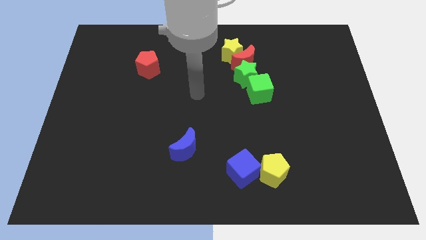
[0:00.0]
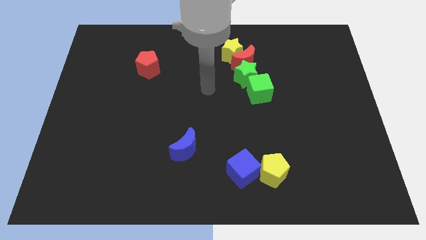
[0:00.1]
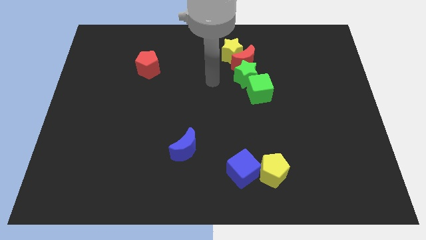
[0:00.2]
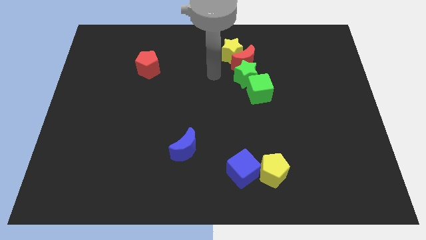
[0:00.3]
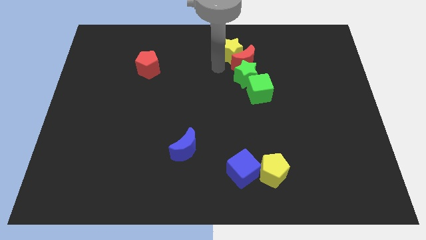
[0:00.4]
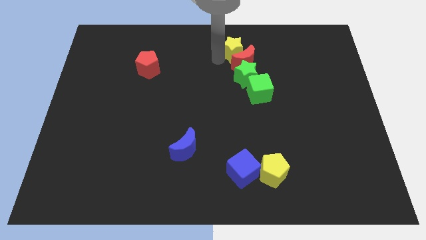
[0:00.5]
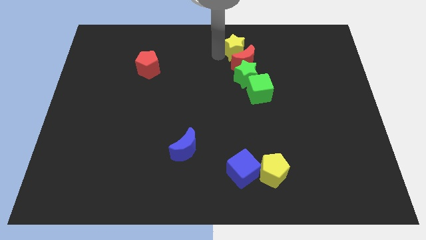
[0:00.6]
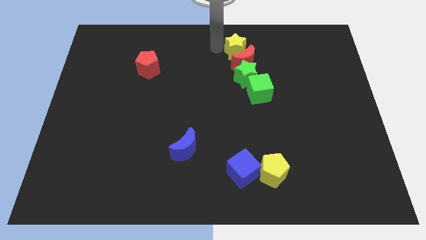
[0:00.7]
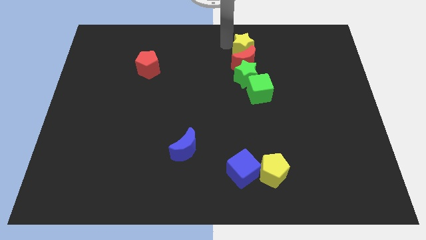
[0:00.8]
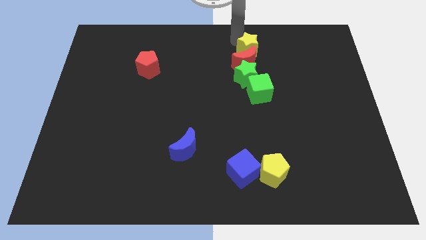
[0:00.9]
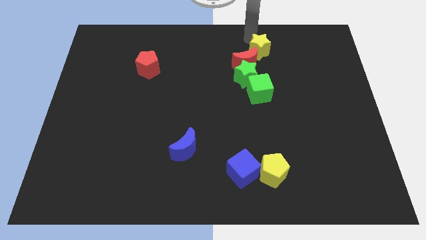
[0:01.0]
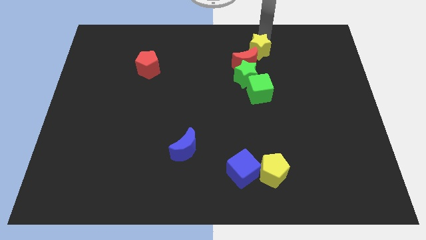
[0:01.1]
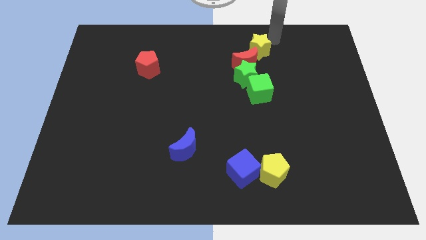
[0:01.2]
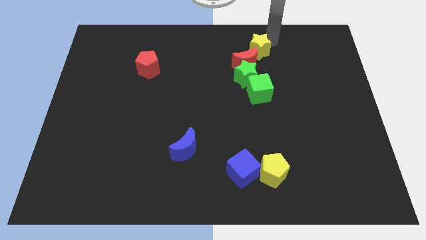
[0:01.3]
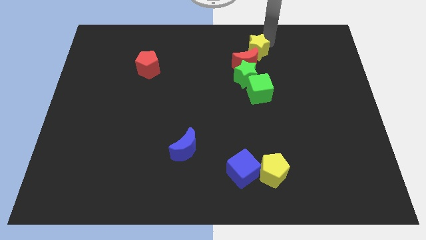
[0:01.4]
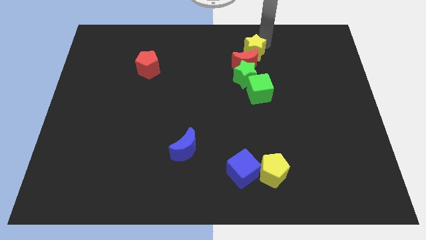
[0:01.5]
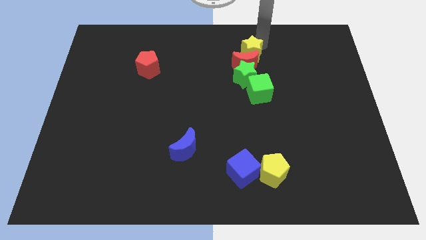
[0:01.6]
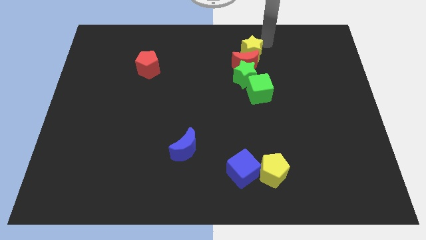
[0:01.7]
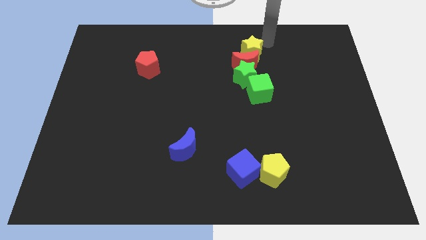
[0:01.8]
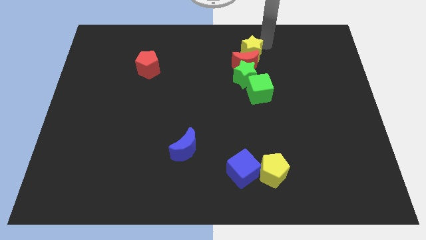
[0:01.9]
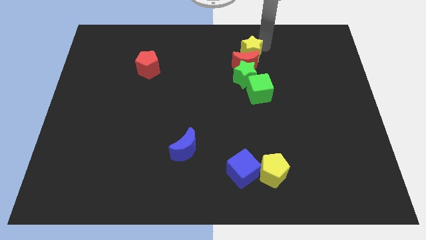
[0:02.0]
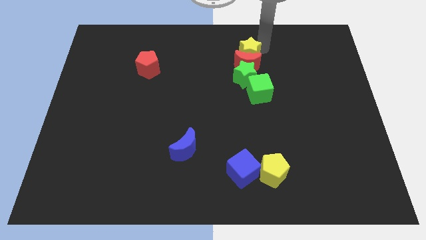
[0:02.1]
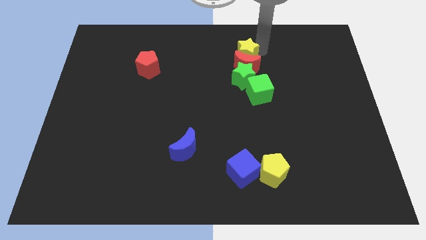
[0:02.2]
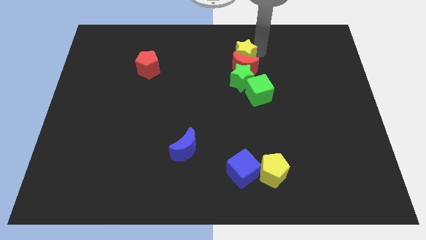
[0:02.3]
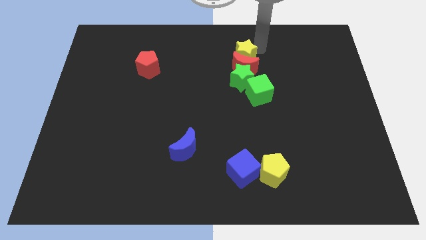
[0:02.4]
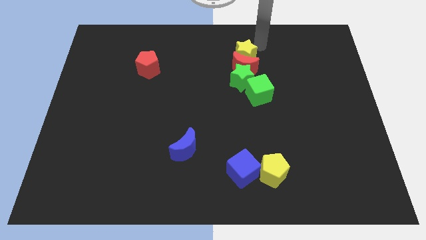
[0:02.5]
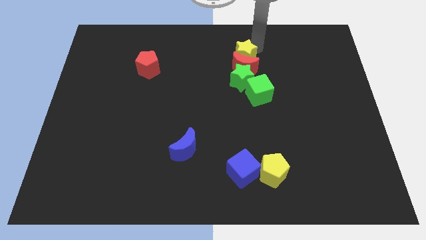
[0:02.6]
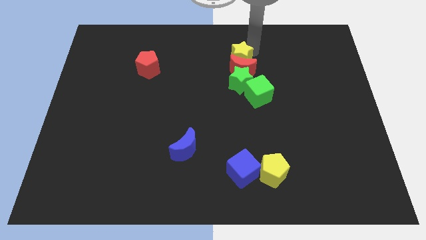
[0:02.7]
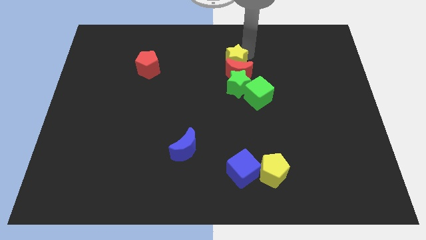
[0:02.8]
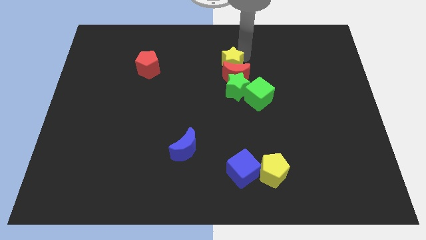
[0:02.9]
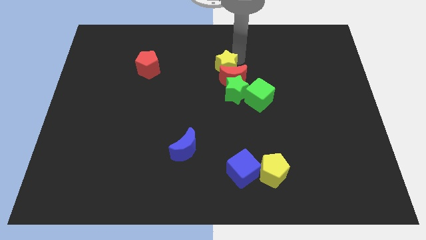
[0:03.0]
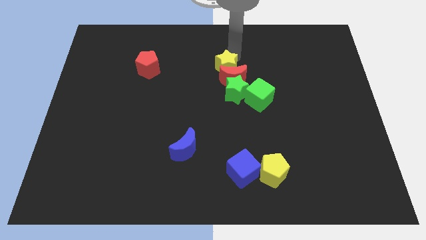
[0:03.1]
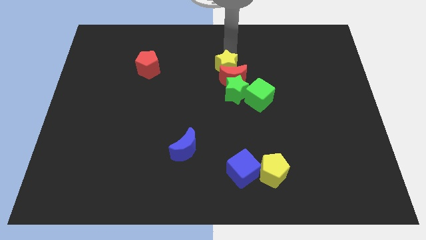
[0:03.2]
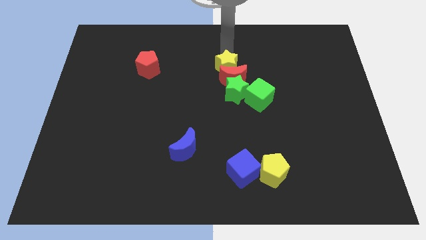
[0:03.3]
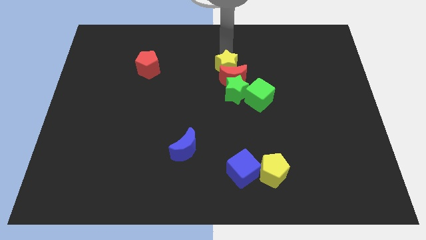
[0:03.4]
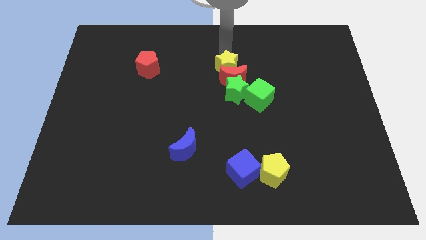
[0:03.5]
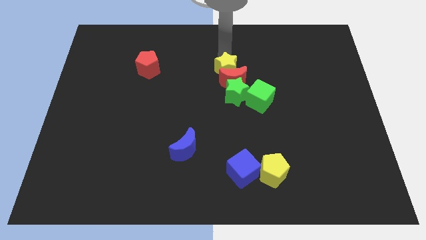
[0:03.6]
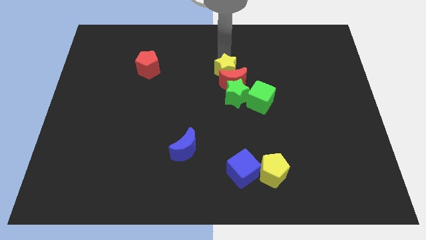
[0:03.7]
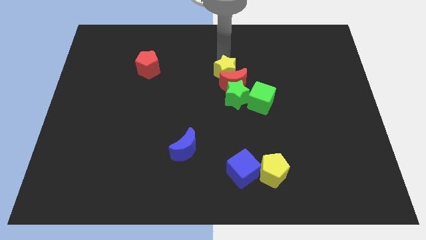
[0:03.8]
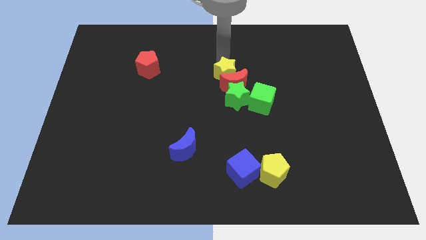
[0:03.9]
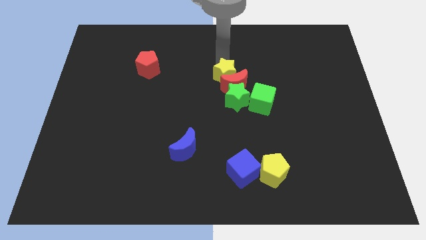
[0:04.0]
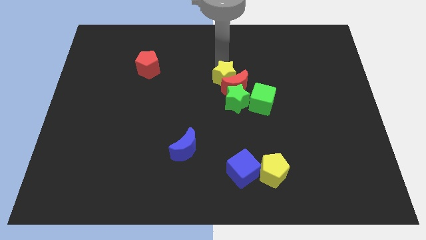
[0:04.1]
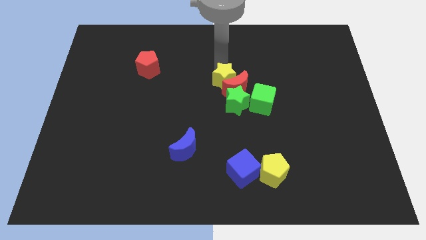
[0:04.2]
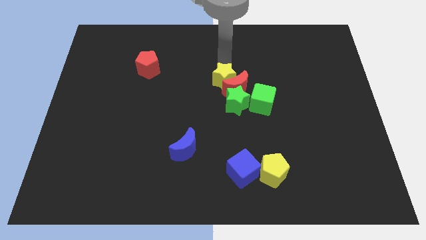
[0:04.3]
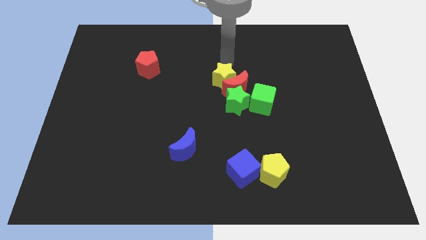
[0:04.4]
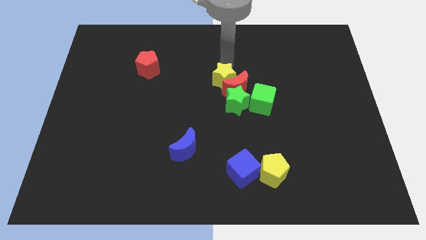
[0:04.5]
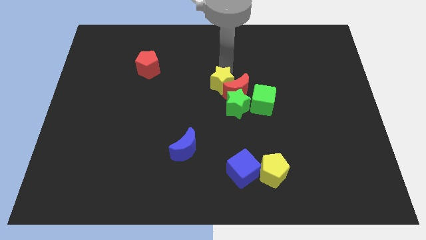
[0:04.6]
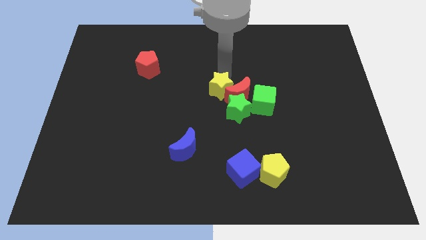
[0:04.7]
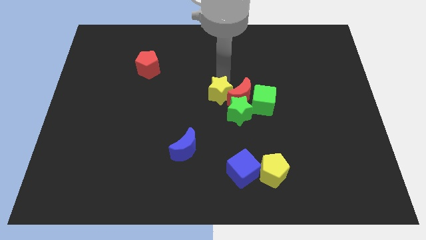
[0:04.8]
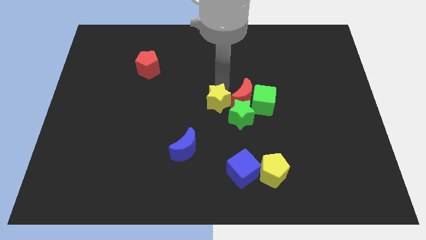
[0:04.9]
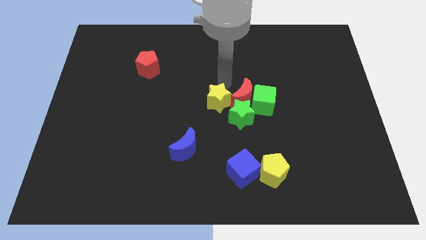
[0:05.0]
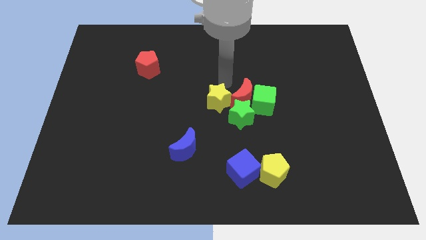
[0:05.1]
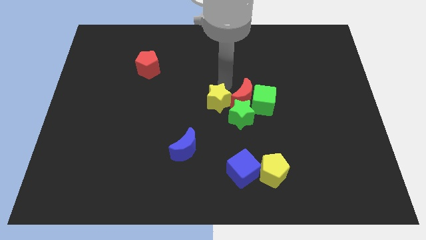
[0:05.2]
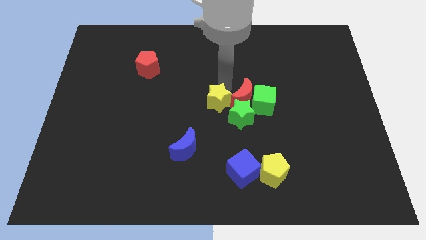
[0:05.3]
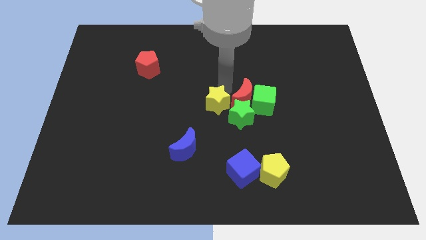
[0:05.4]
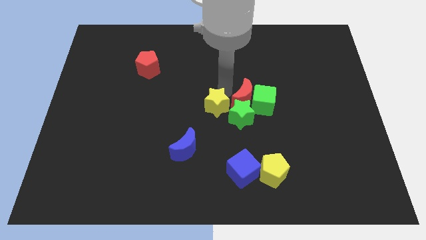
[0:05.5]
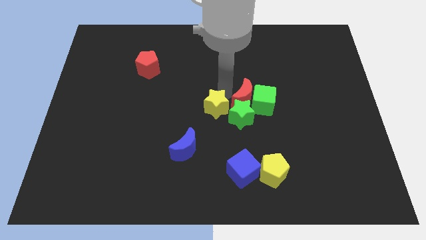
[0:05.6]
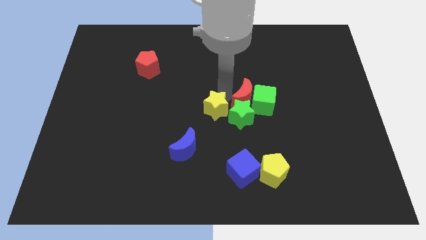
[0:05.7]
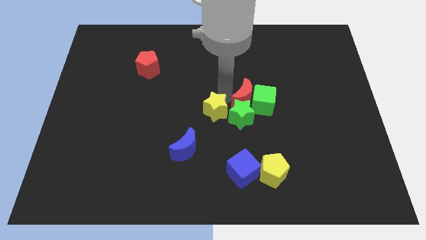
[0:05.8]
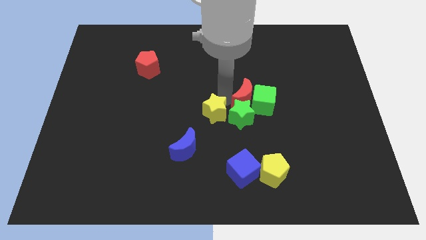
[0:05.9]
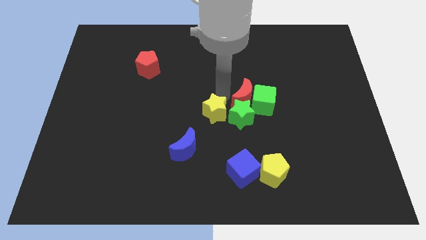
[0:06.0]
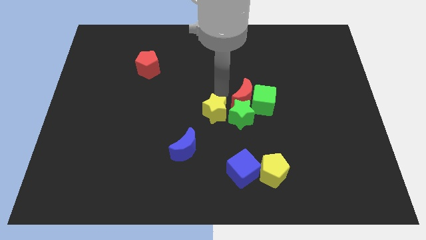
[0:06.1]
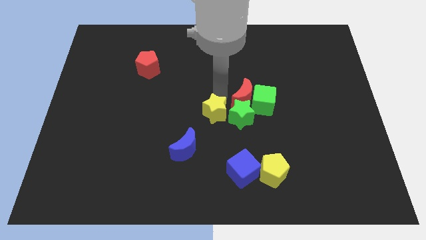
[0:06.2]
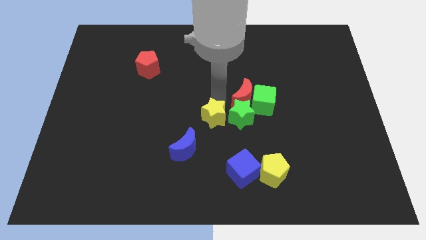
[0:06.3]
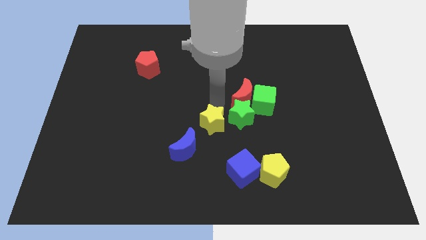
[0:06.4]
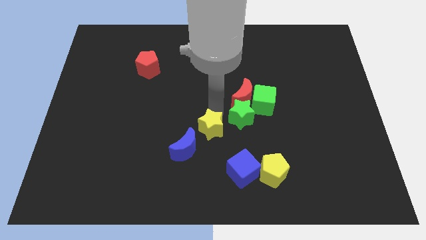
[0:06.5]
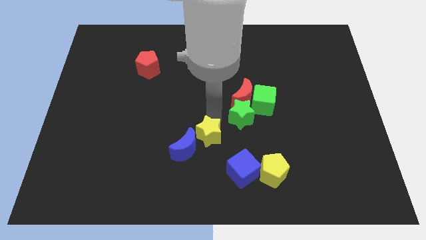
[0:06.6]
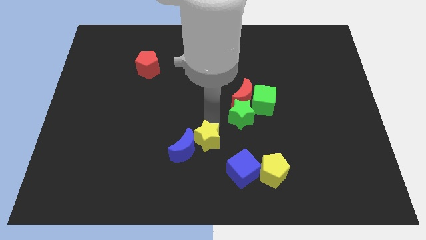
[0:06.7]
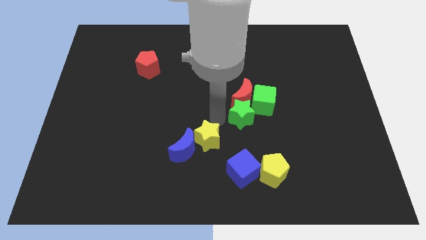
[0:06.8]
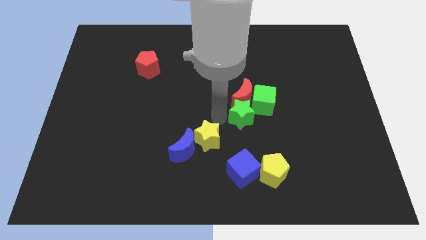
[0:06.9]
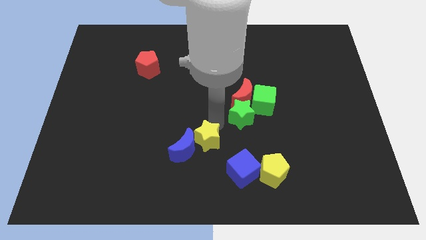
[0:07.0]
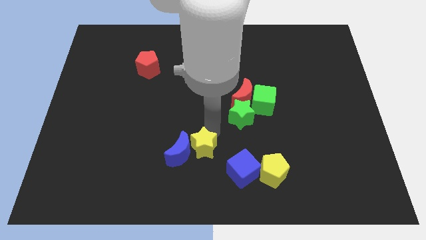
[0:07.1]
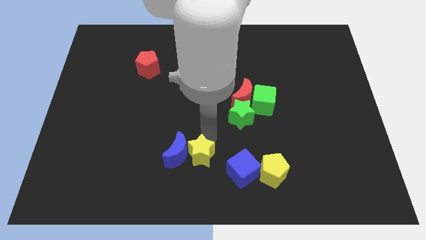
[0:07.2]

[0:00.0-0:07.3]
move the yellow star left of the blue cube
